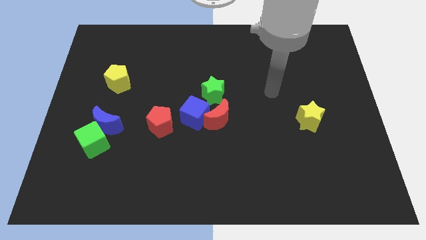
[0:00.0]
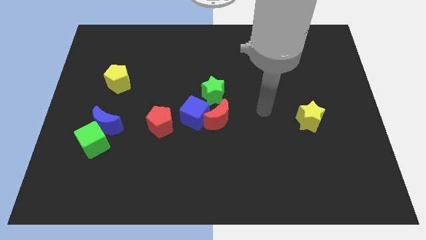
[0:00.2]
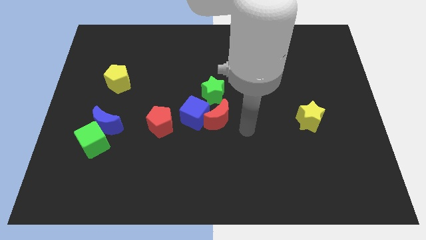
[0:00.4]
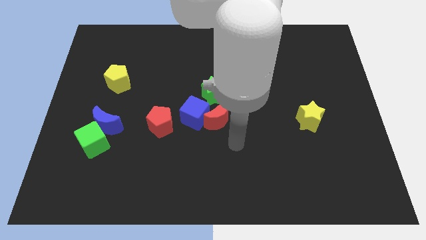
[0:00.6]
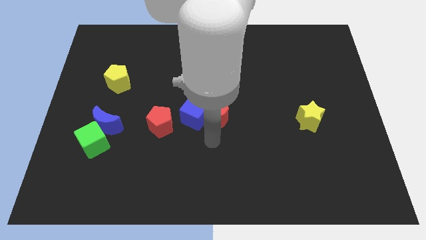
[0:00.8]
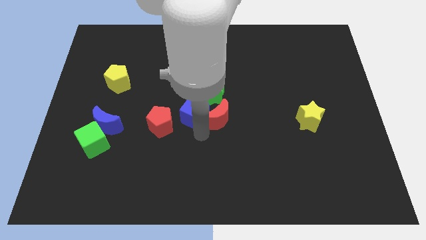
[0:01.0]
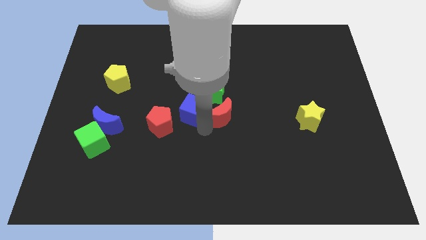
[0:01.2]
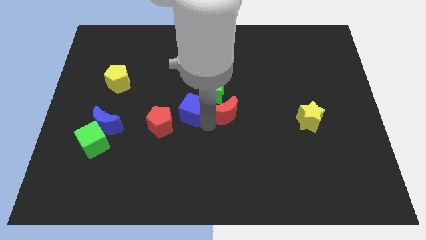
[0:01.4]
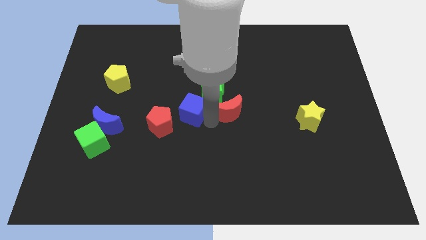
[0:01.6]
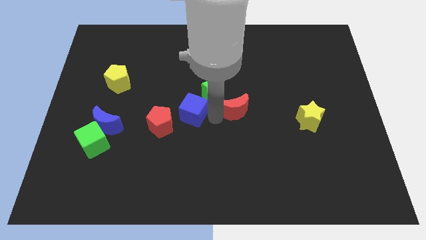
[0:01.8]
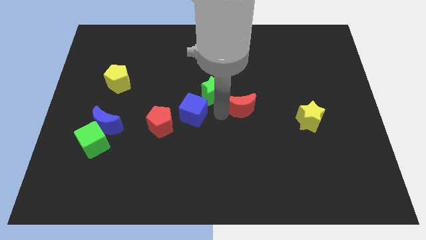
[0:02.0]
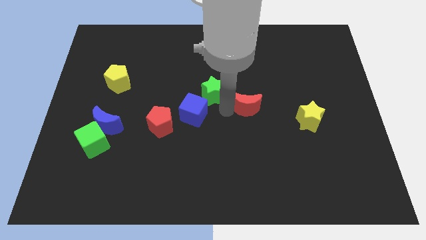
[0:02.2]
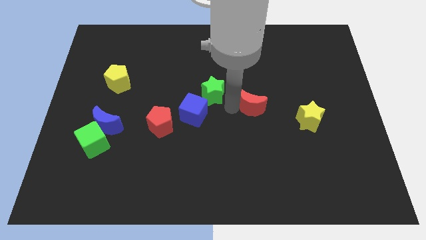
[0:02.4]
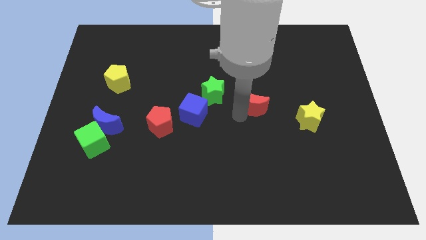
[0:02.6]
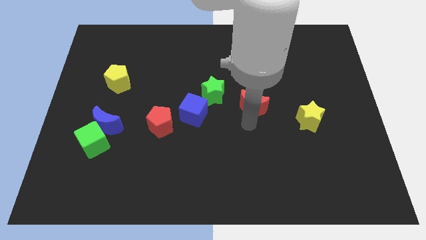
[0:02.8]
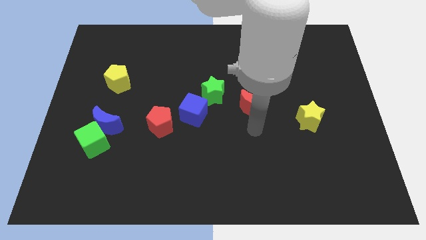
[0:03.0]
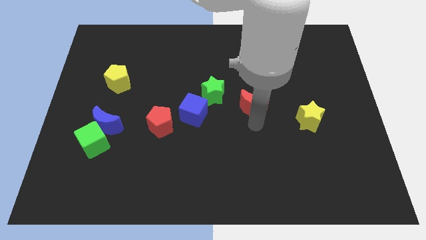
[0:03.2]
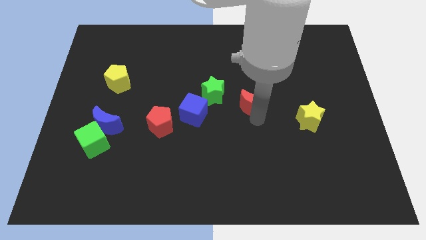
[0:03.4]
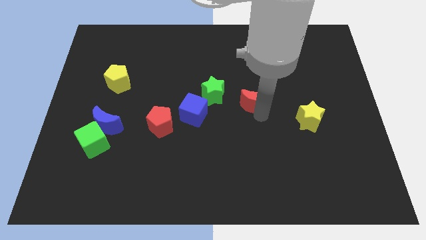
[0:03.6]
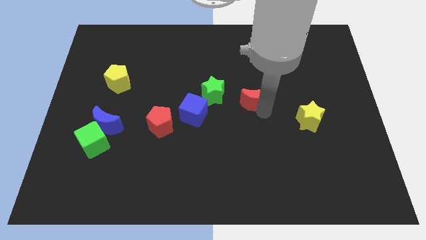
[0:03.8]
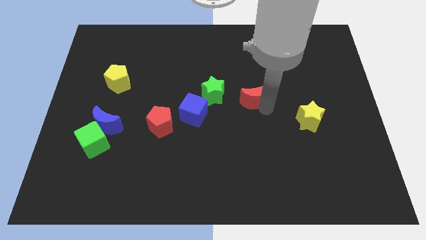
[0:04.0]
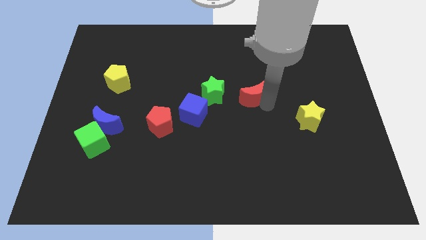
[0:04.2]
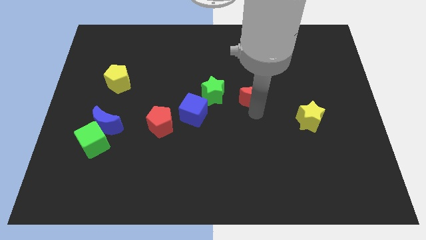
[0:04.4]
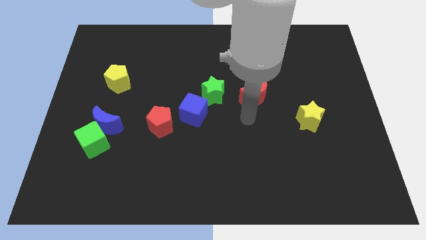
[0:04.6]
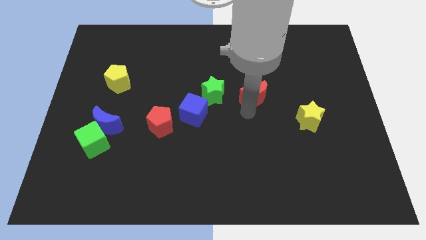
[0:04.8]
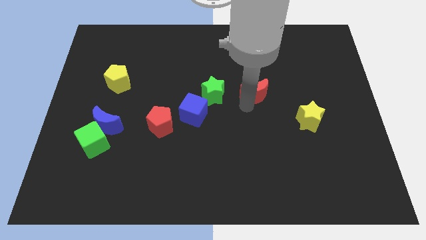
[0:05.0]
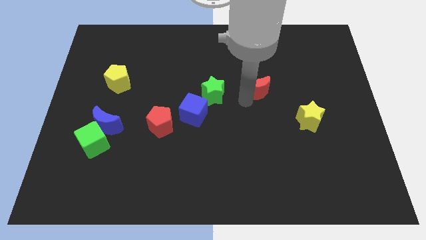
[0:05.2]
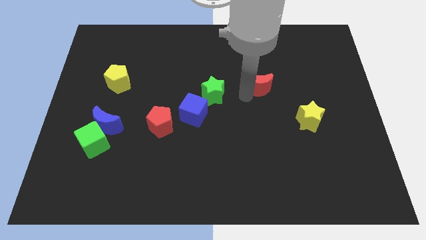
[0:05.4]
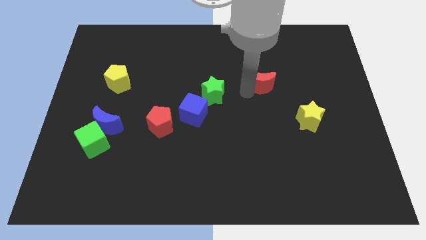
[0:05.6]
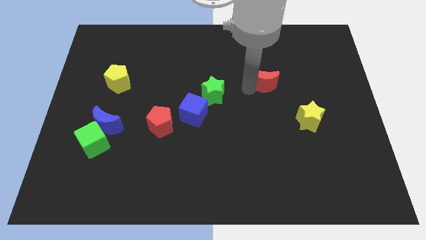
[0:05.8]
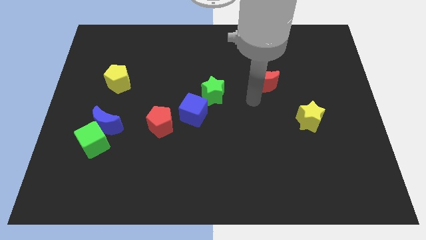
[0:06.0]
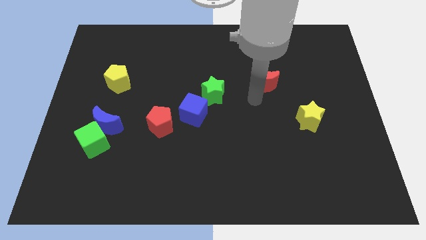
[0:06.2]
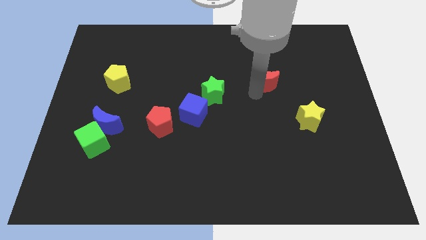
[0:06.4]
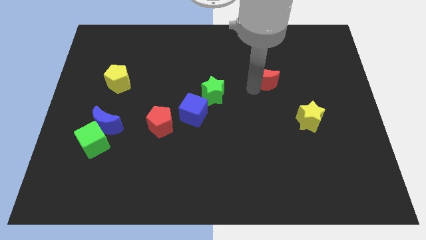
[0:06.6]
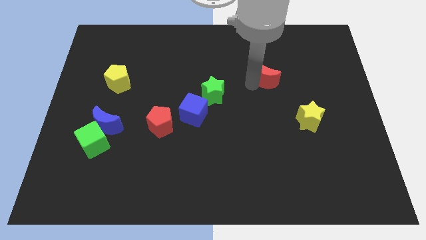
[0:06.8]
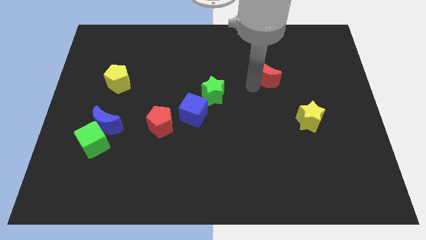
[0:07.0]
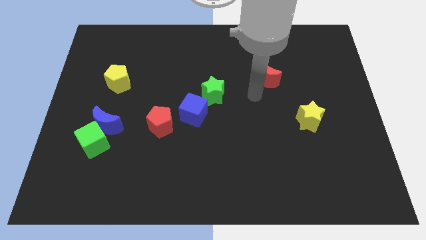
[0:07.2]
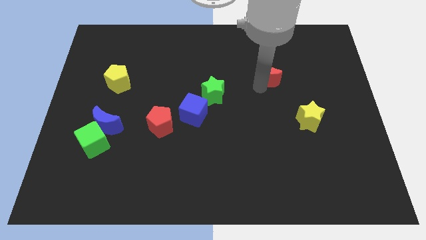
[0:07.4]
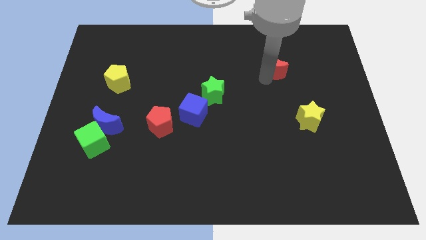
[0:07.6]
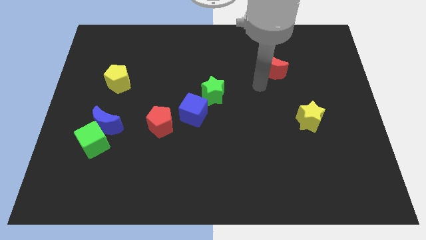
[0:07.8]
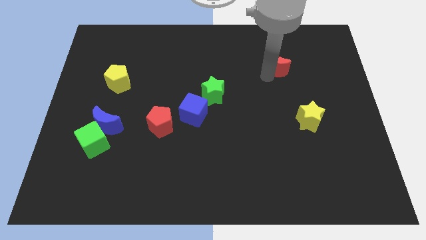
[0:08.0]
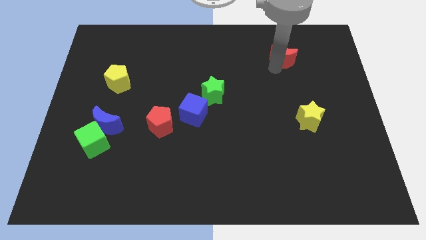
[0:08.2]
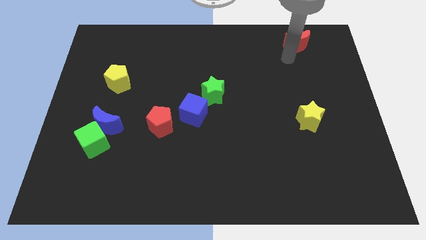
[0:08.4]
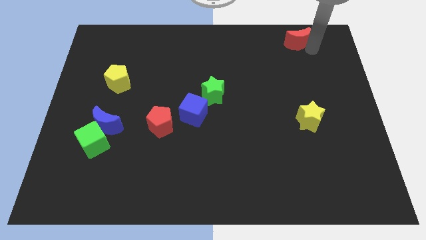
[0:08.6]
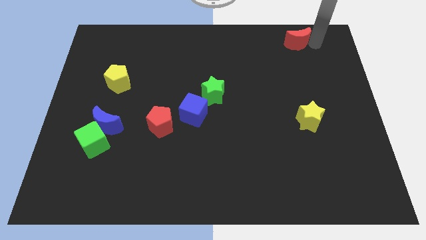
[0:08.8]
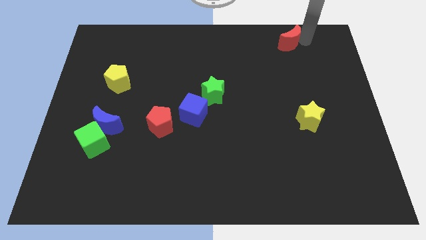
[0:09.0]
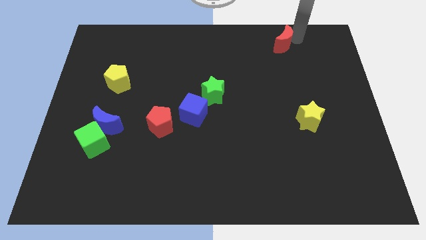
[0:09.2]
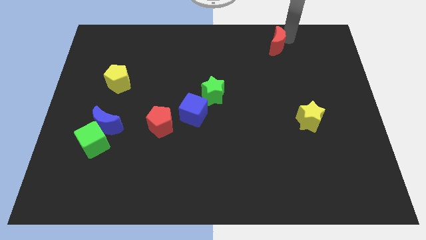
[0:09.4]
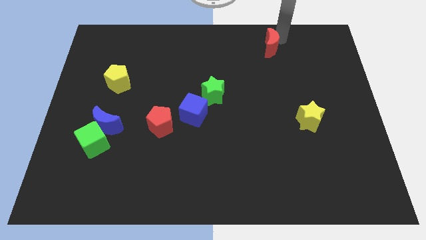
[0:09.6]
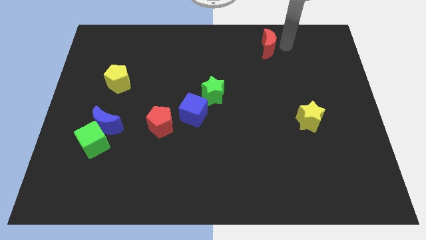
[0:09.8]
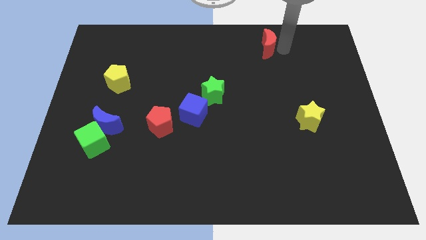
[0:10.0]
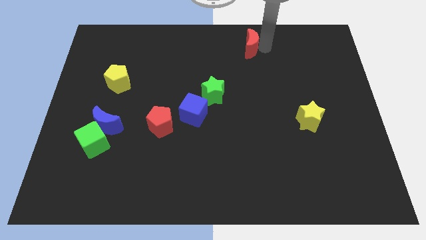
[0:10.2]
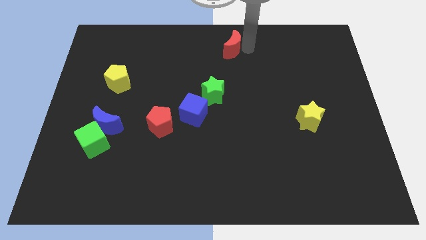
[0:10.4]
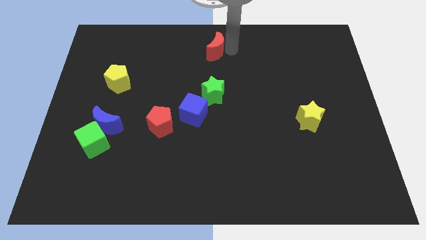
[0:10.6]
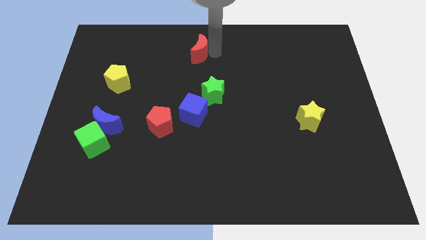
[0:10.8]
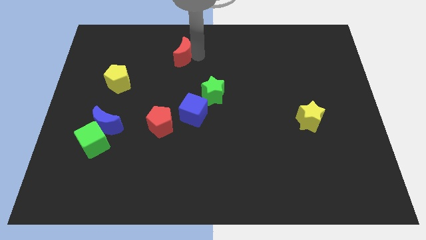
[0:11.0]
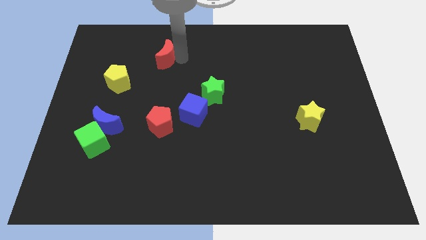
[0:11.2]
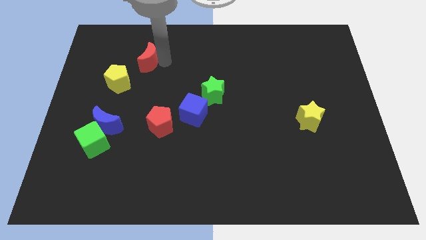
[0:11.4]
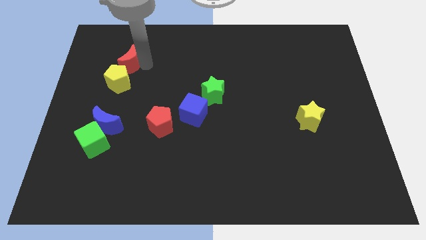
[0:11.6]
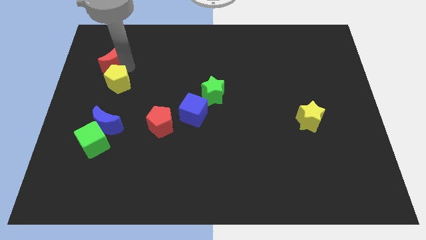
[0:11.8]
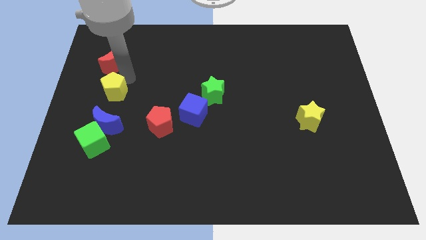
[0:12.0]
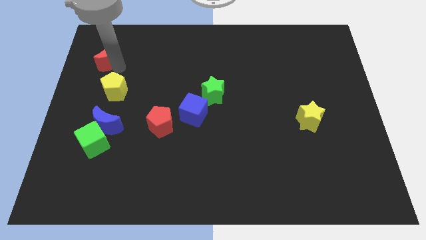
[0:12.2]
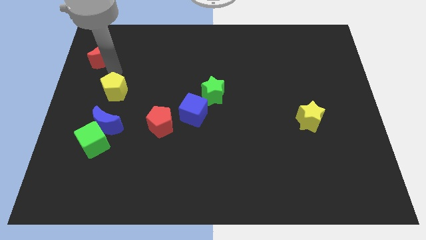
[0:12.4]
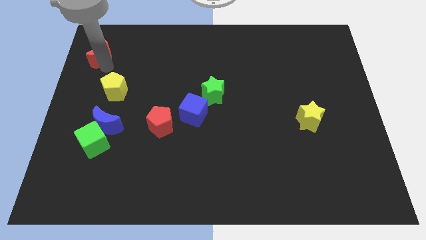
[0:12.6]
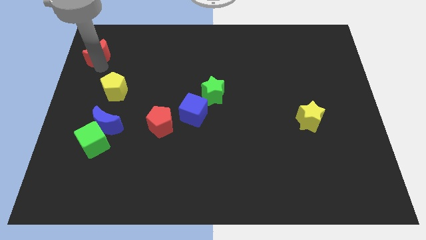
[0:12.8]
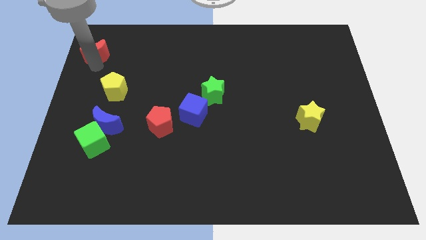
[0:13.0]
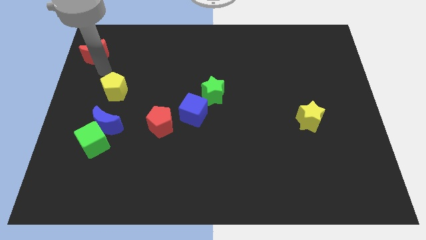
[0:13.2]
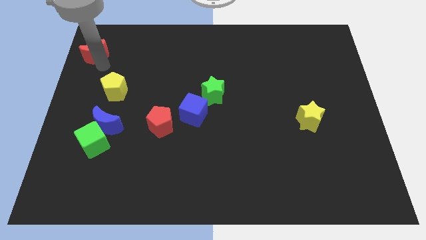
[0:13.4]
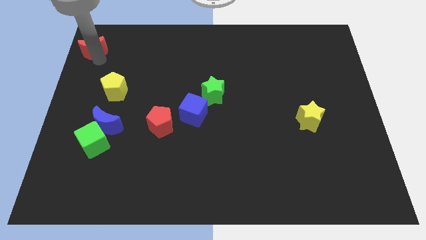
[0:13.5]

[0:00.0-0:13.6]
slide the red moon to the top left
